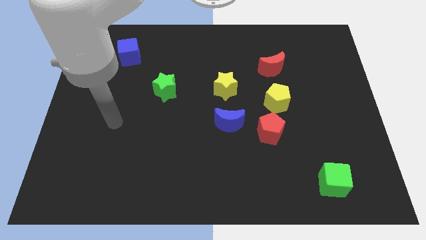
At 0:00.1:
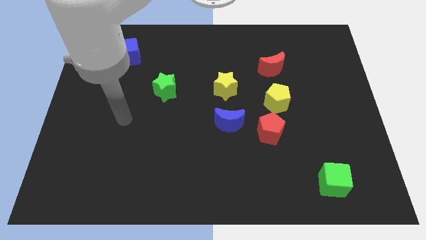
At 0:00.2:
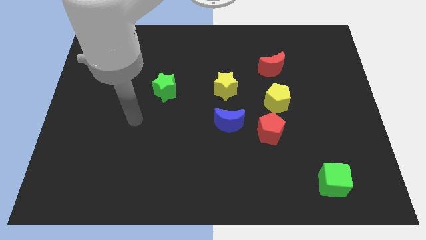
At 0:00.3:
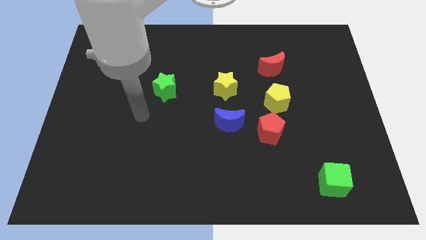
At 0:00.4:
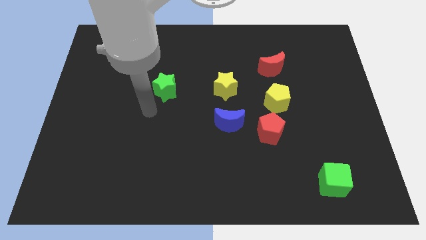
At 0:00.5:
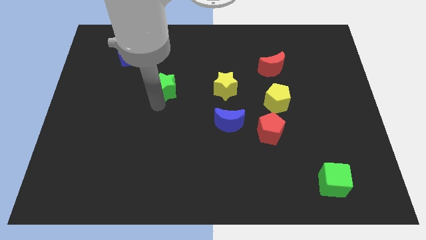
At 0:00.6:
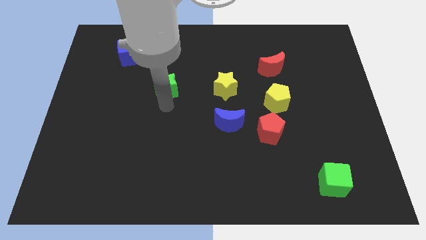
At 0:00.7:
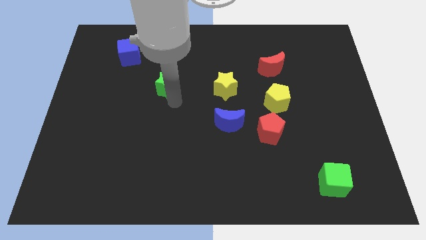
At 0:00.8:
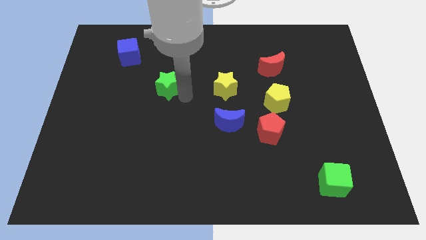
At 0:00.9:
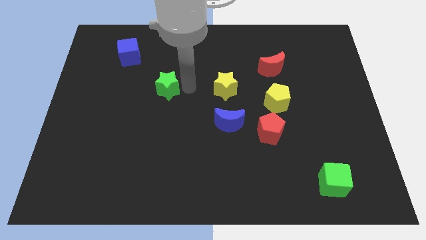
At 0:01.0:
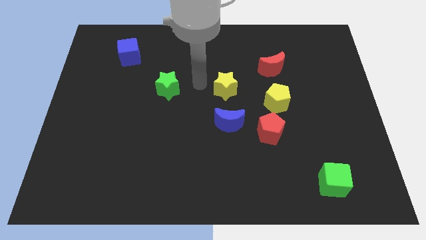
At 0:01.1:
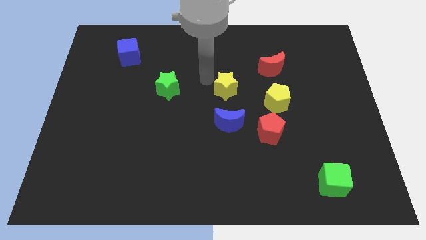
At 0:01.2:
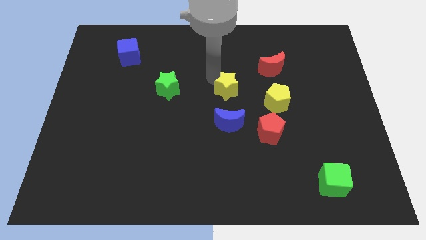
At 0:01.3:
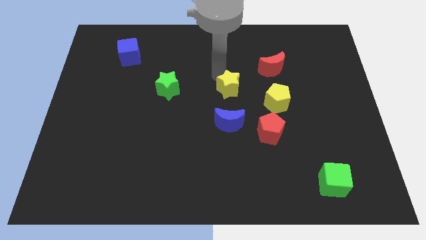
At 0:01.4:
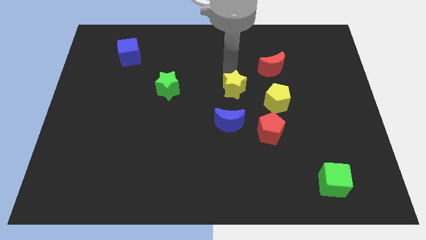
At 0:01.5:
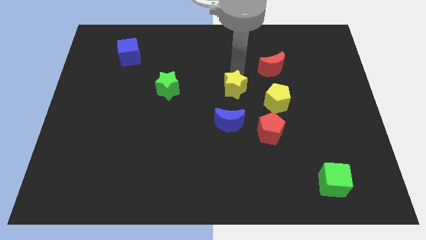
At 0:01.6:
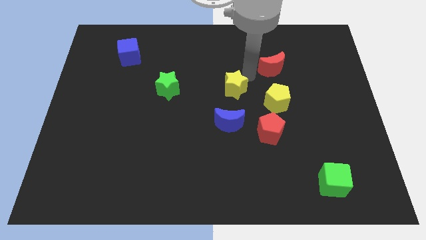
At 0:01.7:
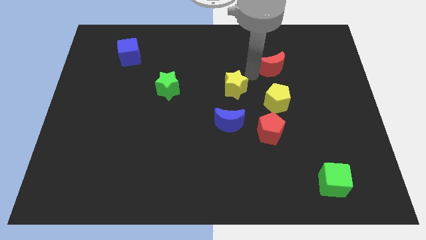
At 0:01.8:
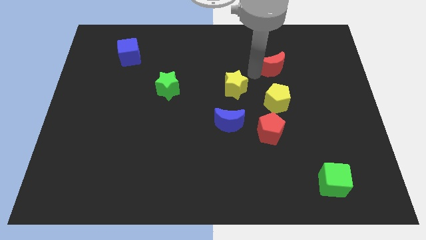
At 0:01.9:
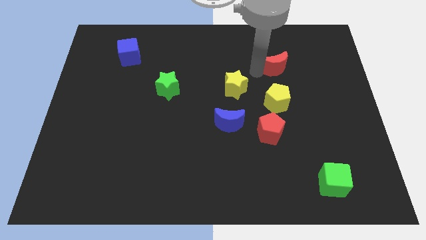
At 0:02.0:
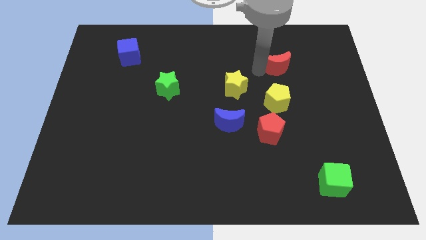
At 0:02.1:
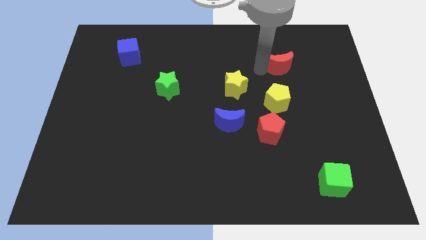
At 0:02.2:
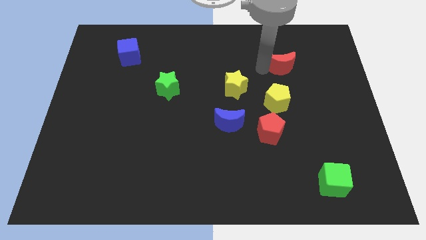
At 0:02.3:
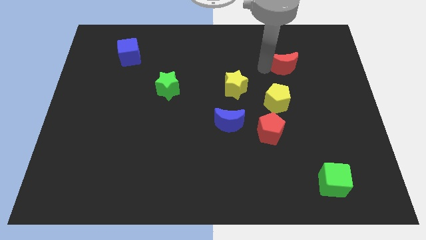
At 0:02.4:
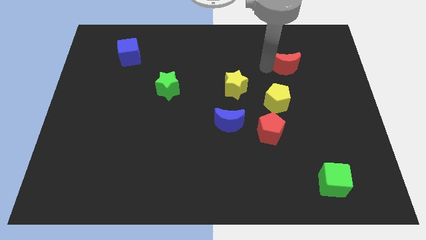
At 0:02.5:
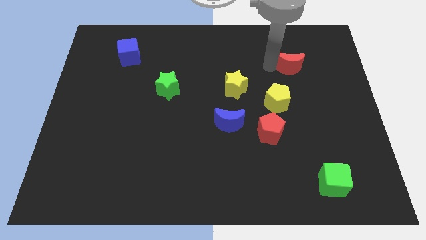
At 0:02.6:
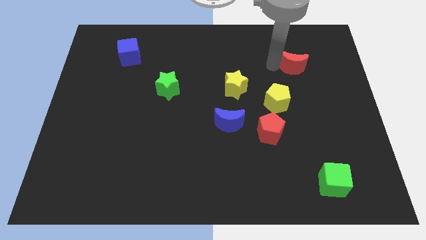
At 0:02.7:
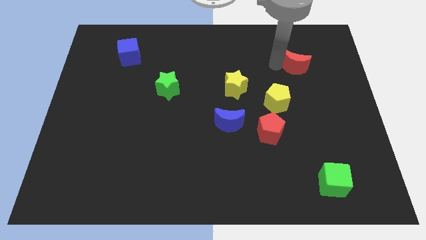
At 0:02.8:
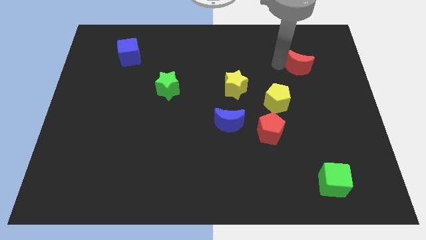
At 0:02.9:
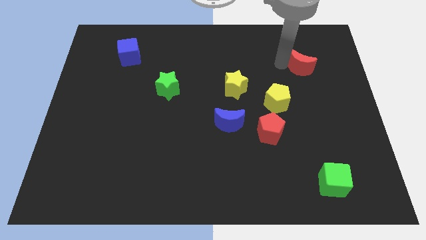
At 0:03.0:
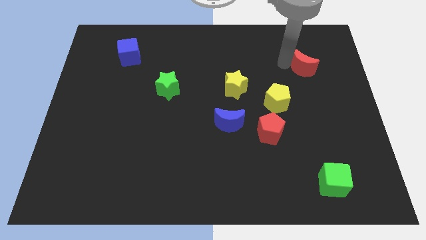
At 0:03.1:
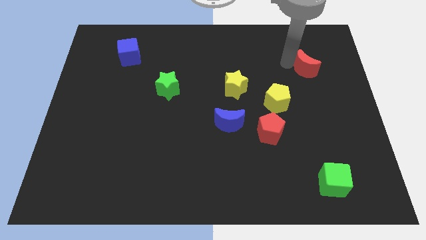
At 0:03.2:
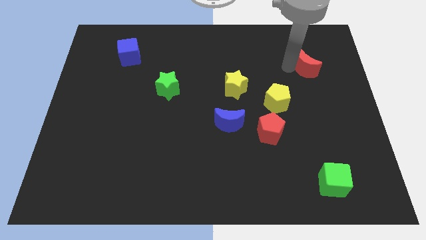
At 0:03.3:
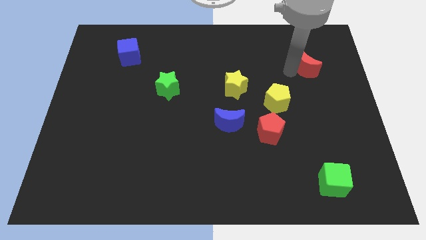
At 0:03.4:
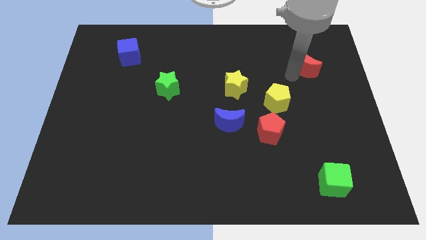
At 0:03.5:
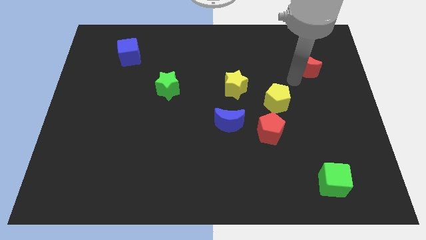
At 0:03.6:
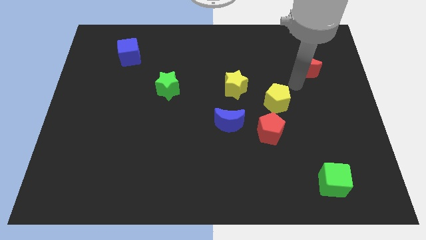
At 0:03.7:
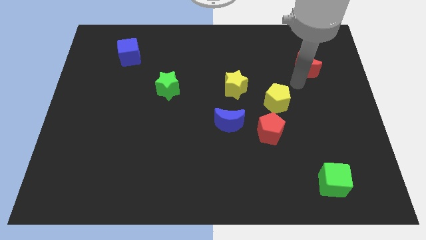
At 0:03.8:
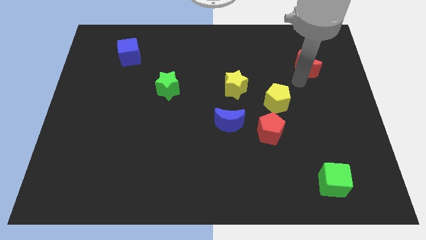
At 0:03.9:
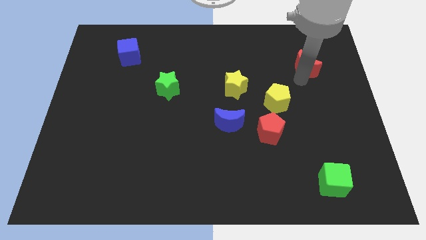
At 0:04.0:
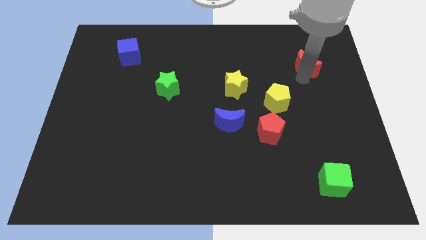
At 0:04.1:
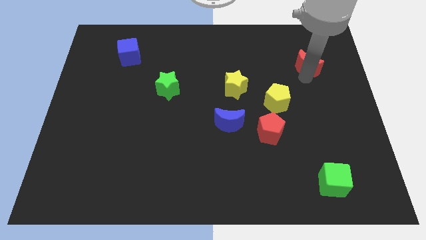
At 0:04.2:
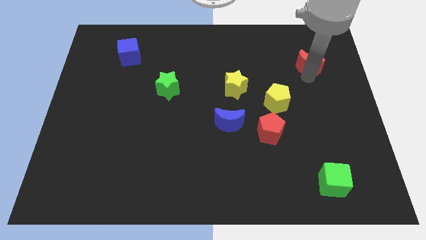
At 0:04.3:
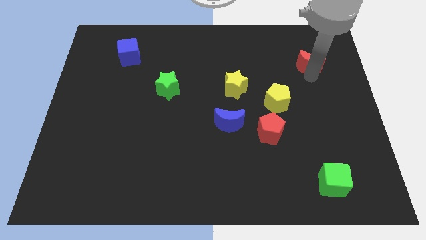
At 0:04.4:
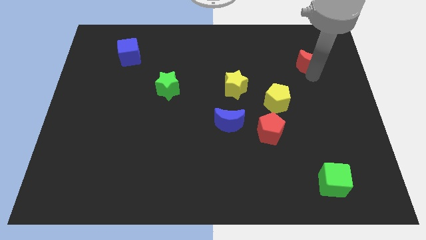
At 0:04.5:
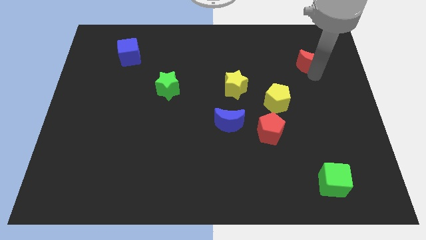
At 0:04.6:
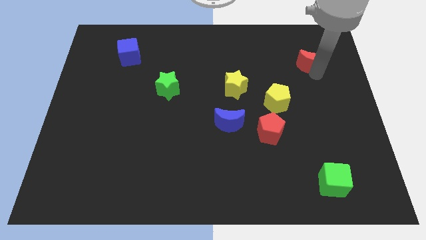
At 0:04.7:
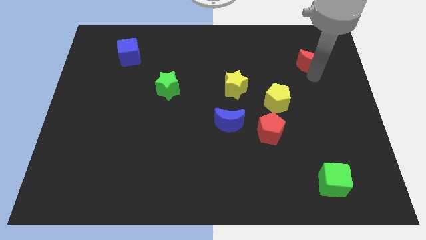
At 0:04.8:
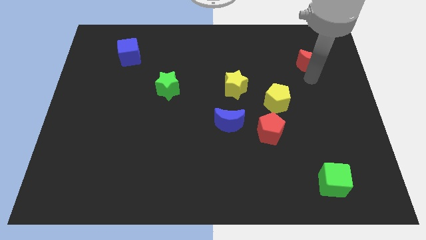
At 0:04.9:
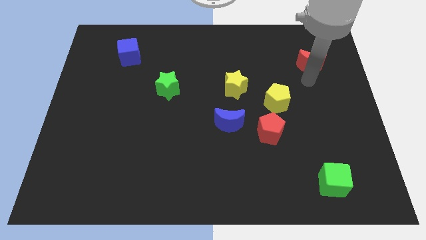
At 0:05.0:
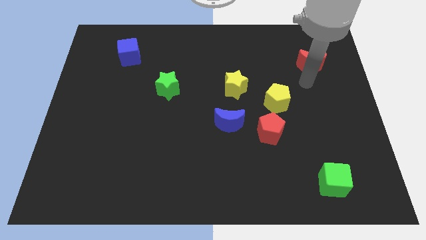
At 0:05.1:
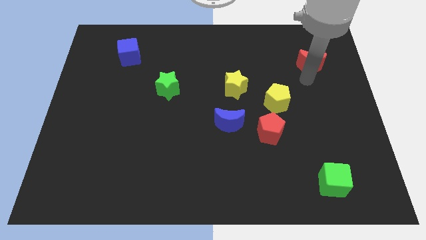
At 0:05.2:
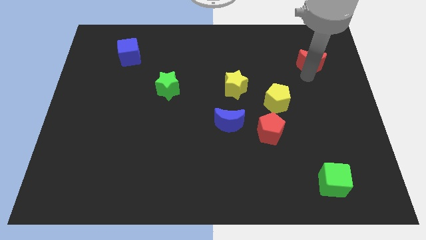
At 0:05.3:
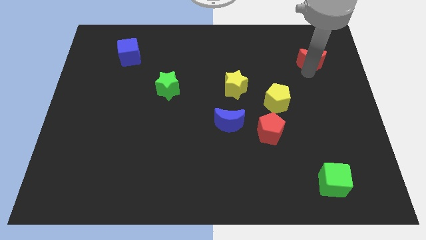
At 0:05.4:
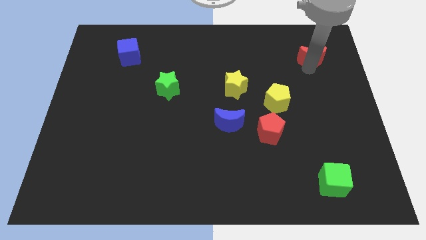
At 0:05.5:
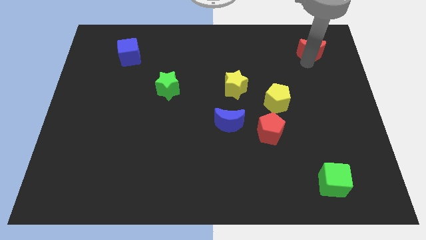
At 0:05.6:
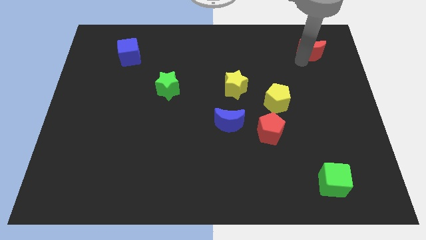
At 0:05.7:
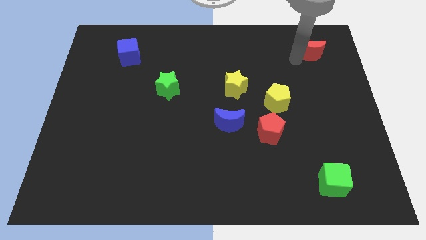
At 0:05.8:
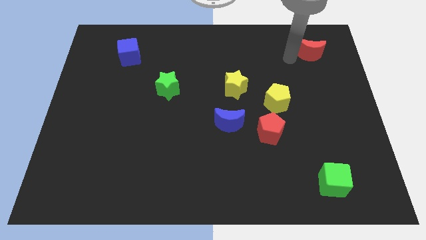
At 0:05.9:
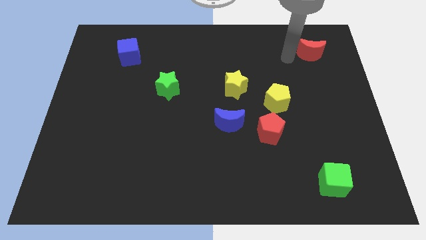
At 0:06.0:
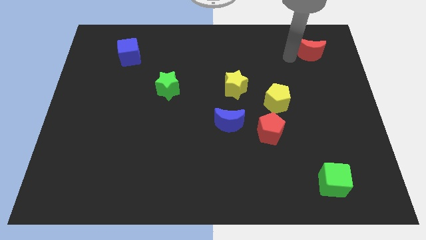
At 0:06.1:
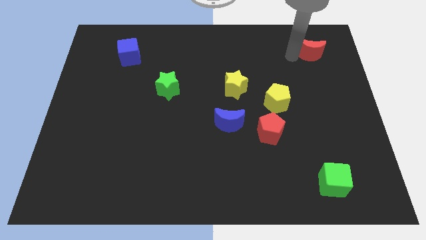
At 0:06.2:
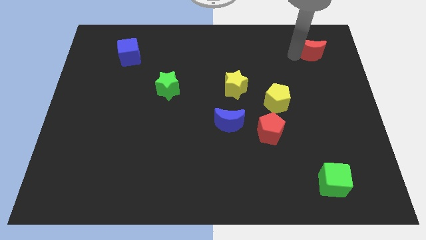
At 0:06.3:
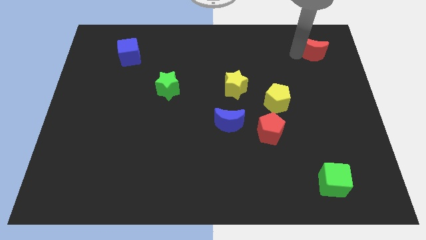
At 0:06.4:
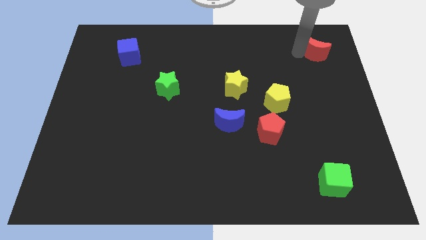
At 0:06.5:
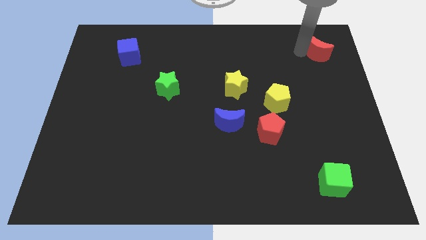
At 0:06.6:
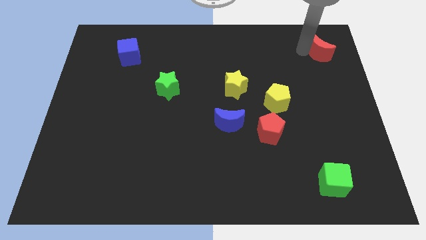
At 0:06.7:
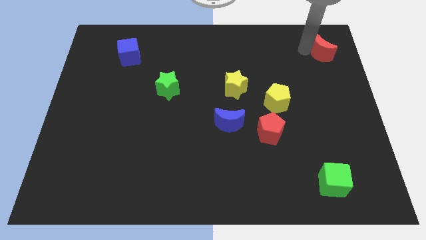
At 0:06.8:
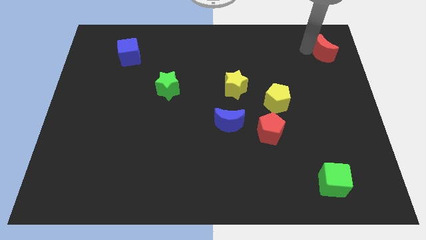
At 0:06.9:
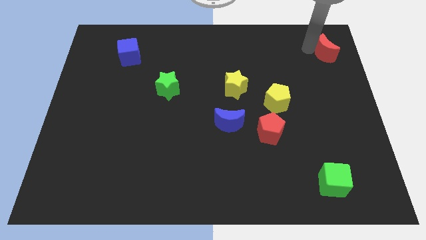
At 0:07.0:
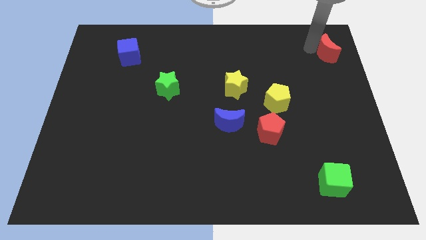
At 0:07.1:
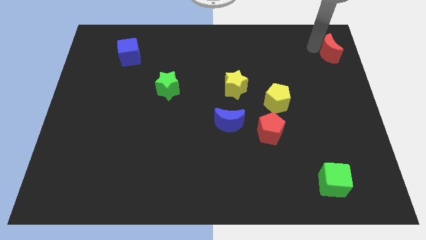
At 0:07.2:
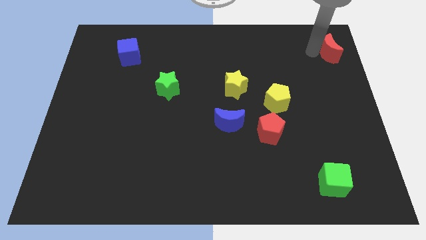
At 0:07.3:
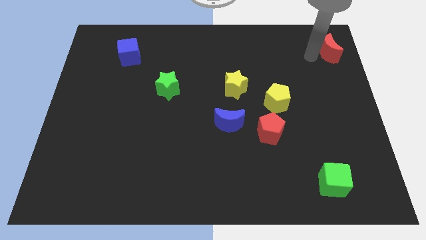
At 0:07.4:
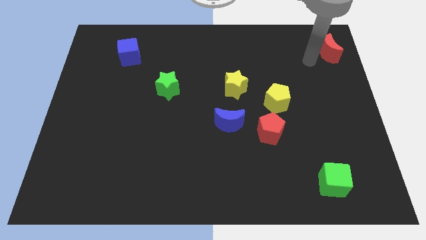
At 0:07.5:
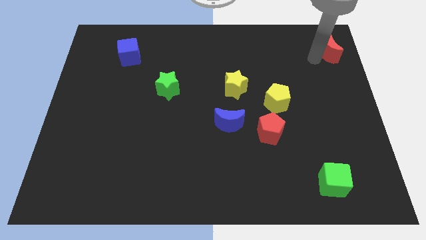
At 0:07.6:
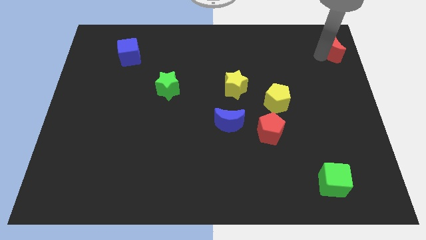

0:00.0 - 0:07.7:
put the red moon to the upper right corner
